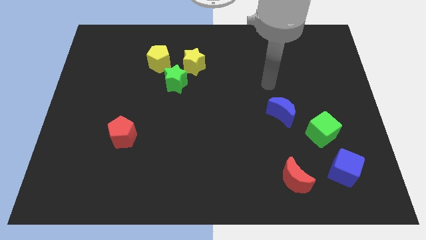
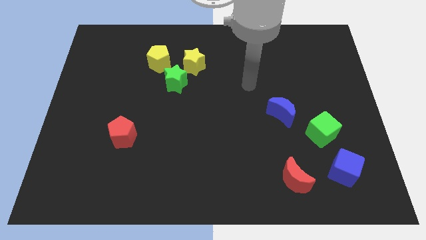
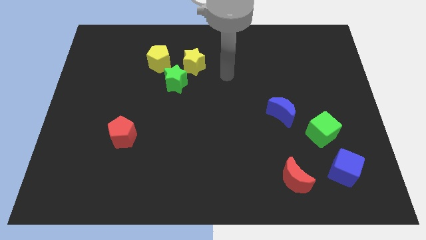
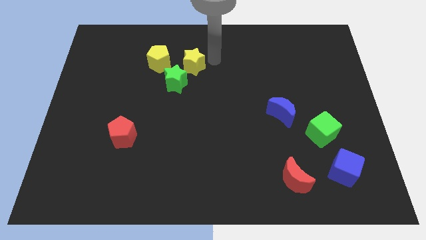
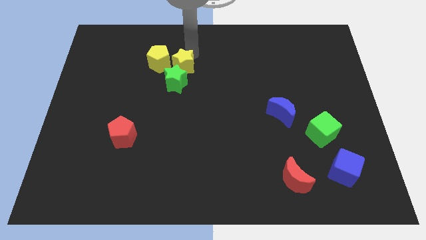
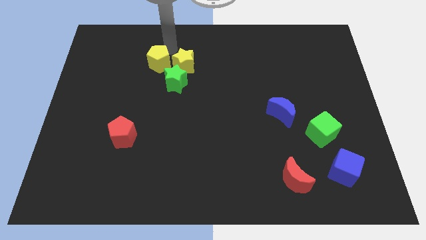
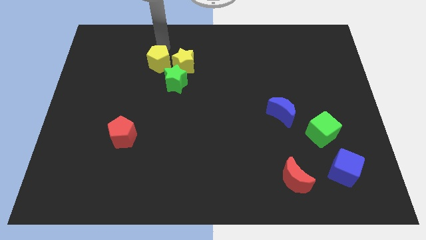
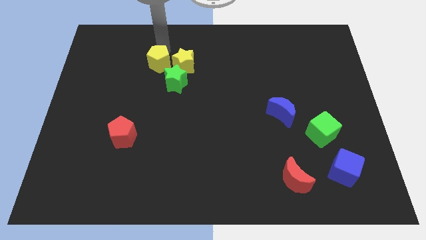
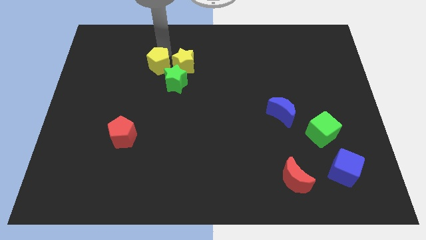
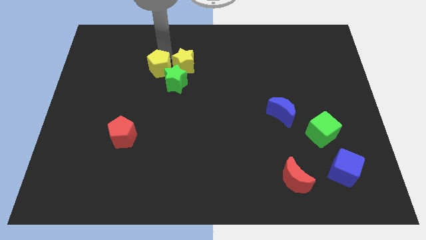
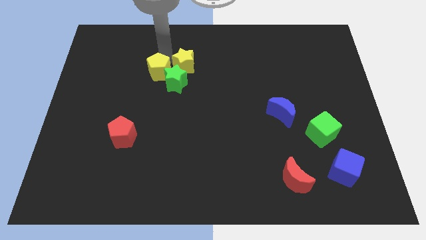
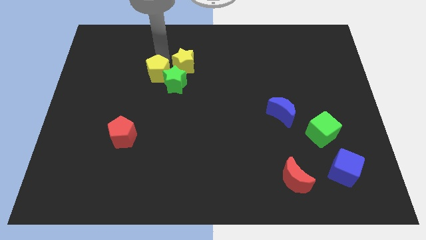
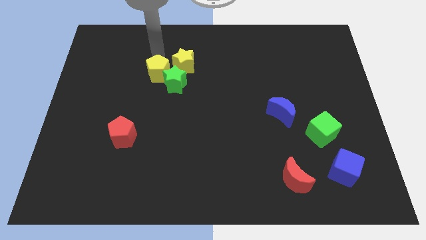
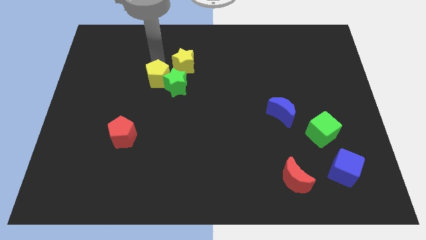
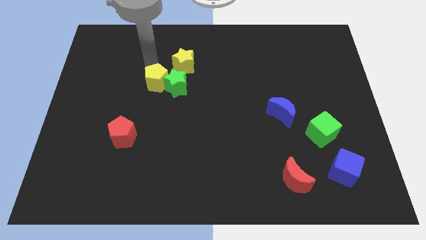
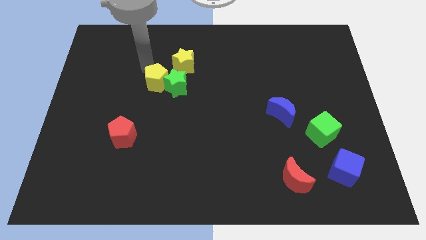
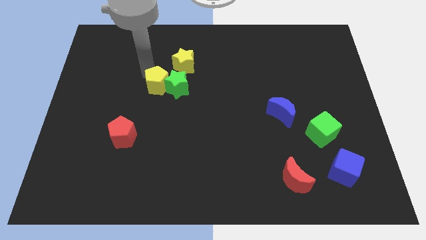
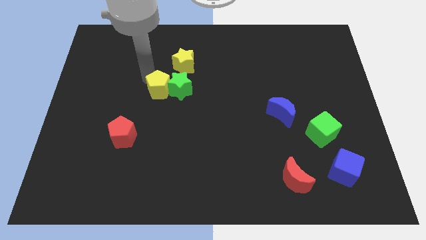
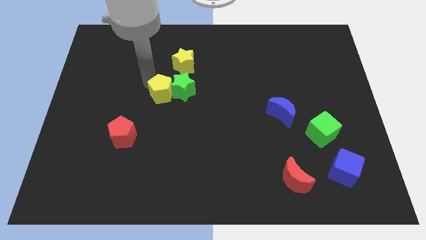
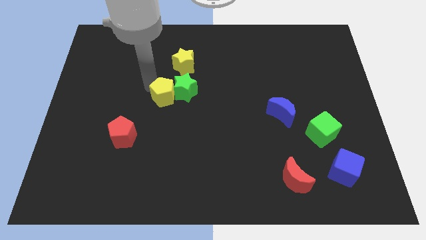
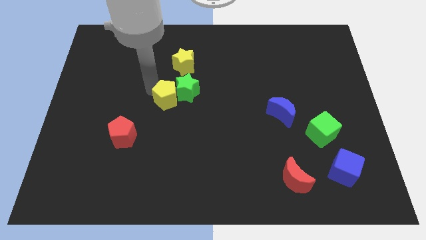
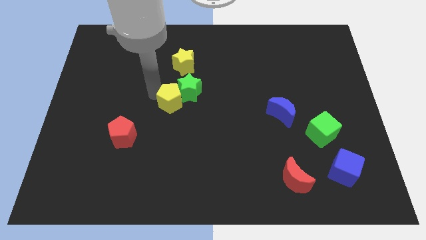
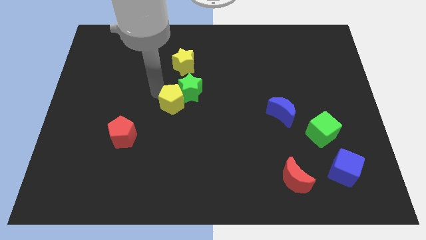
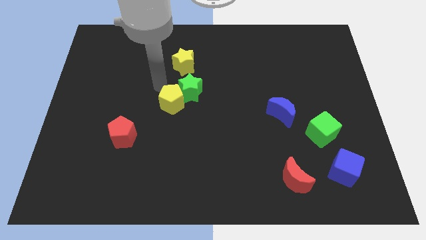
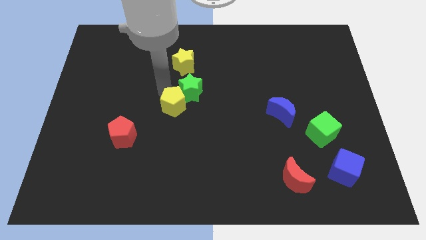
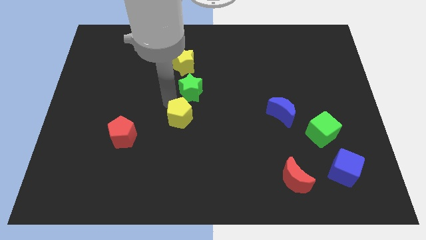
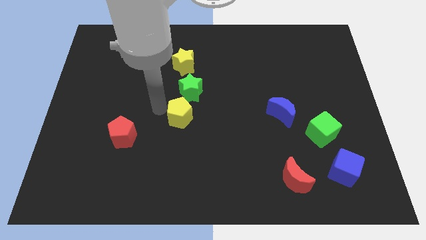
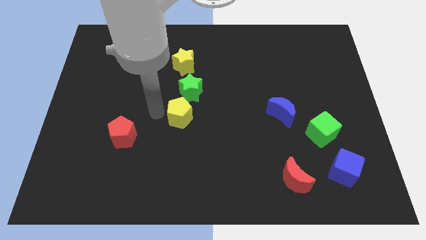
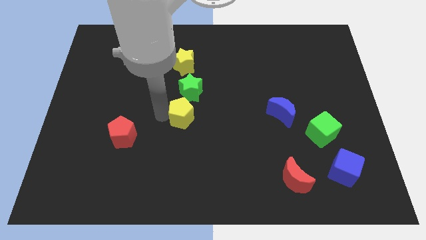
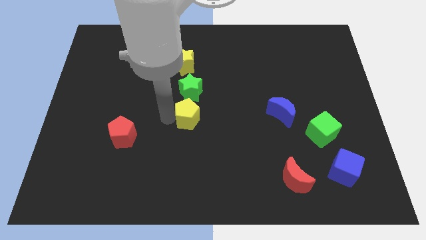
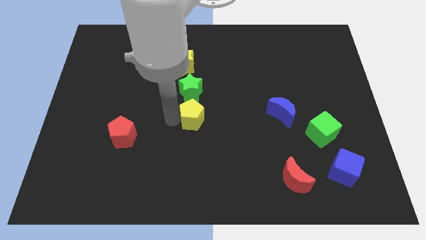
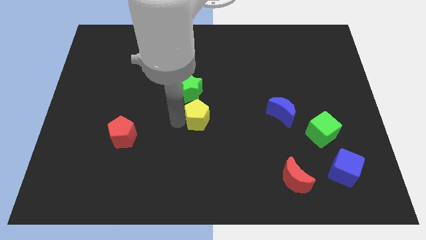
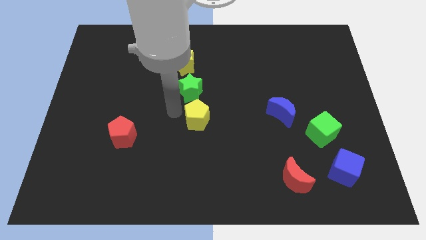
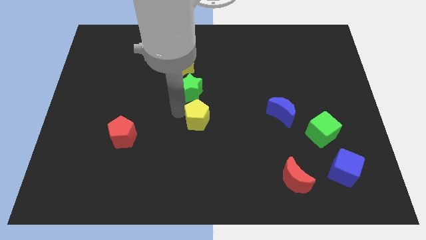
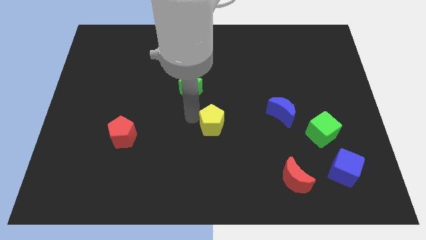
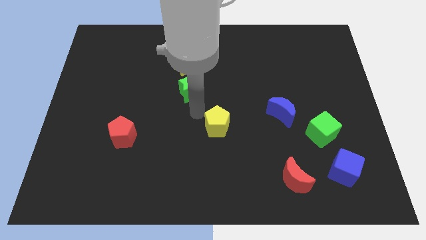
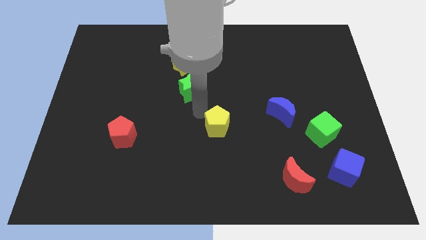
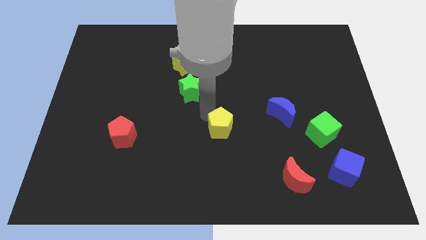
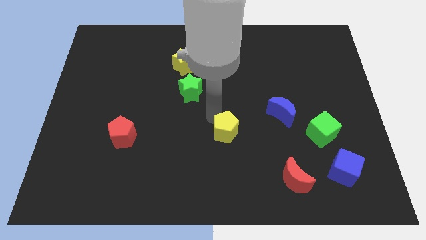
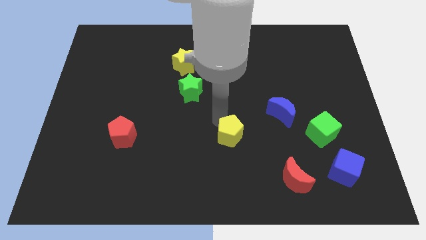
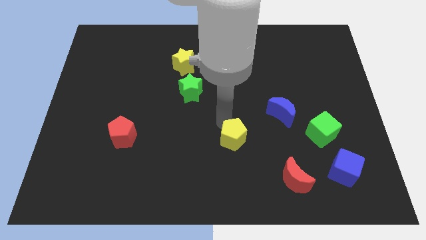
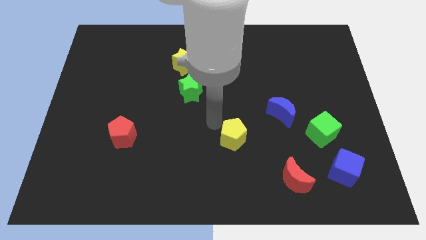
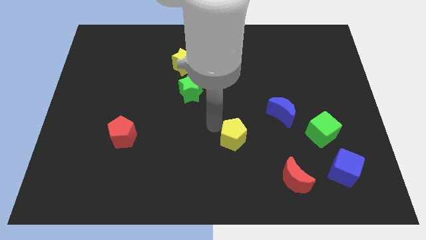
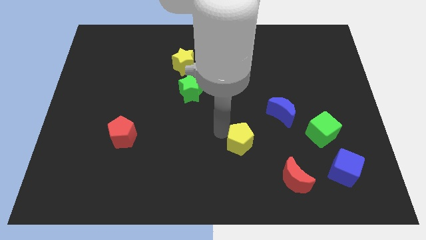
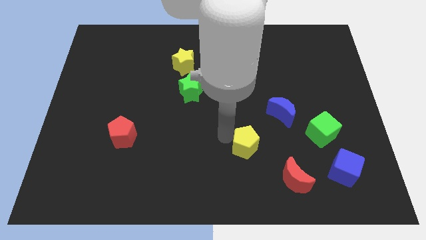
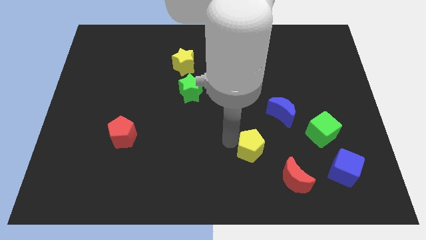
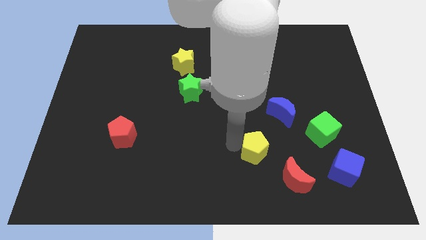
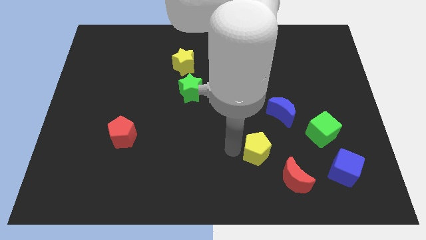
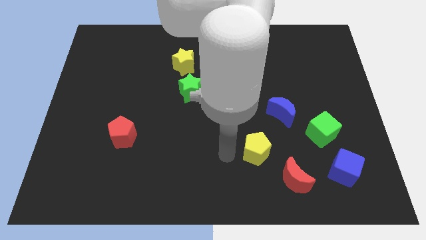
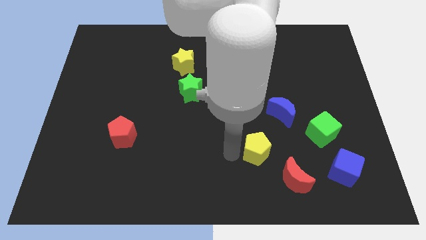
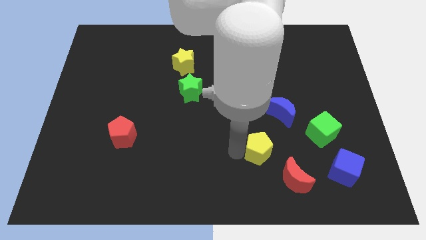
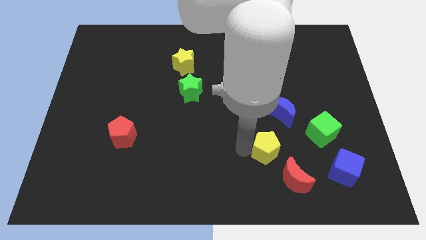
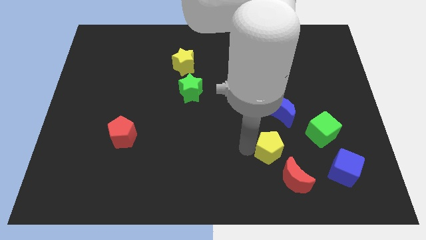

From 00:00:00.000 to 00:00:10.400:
push the yellow pentagon above the red moon

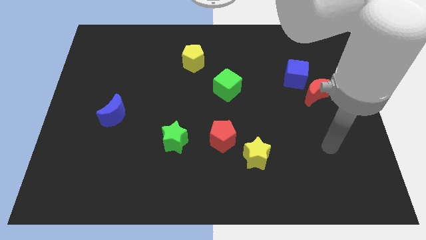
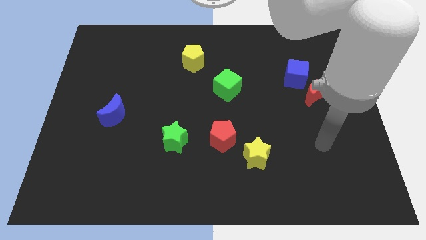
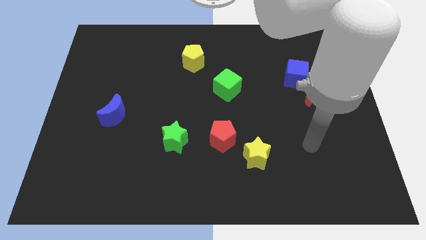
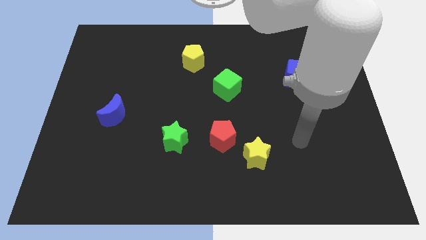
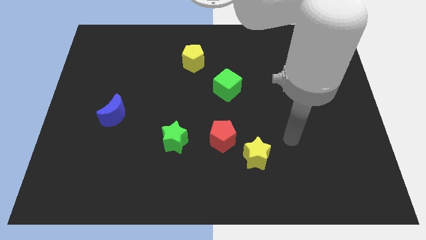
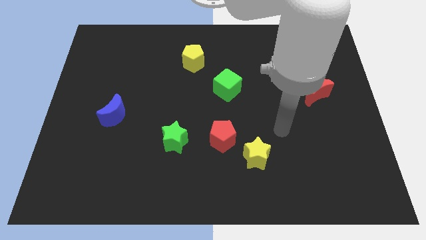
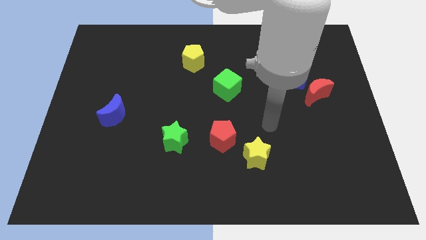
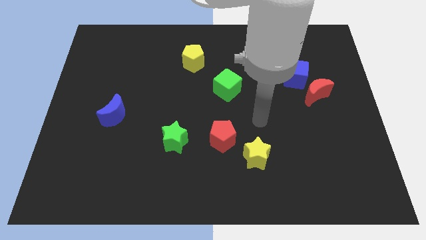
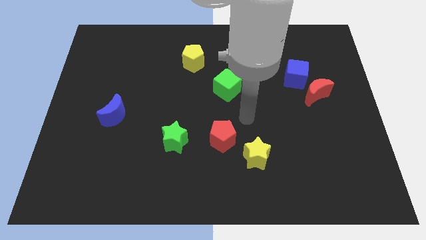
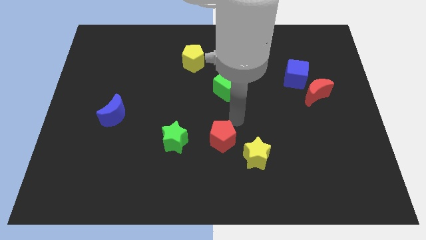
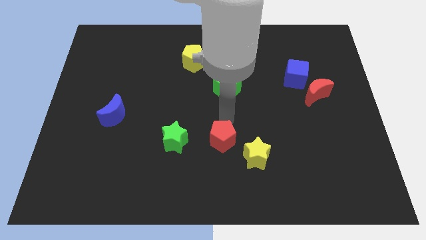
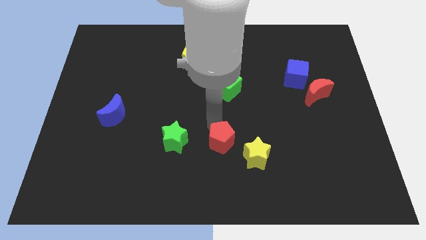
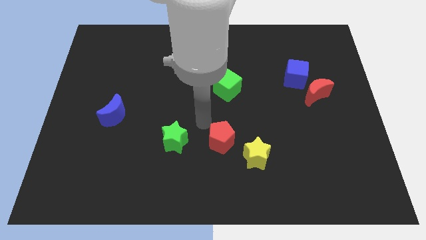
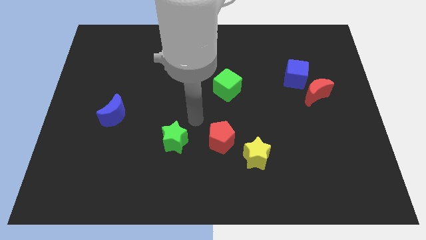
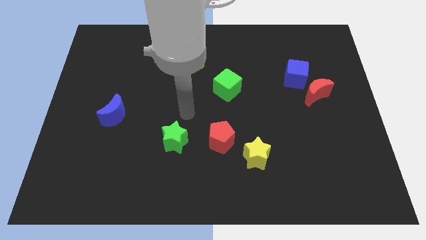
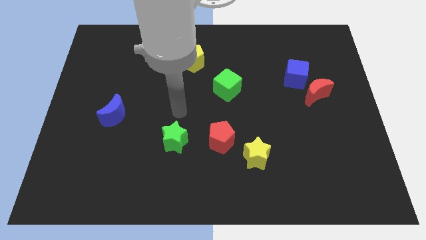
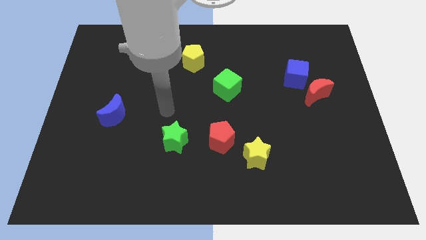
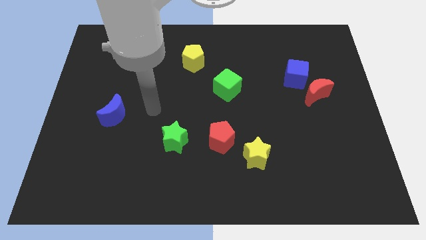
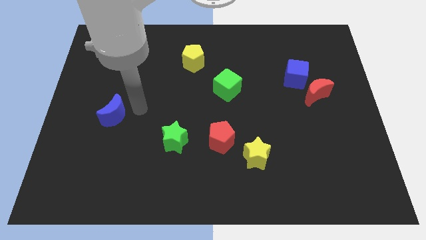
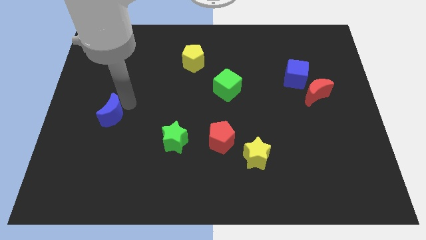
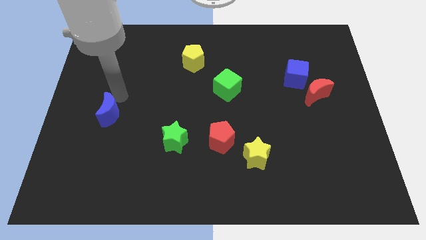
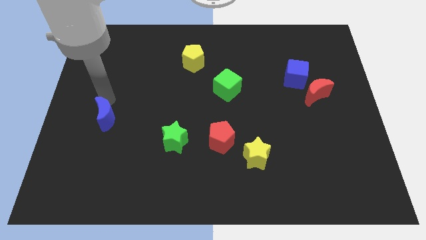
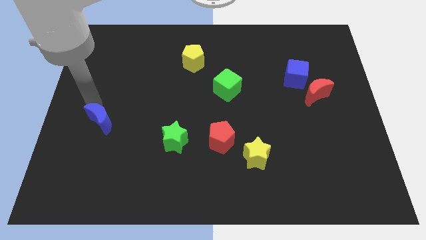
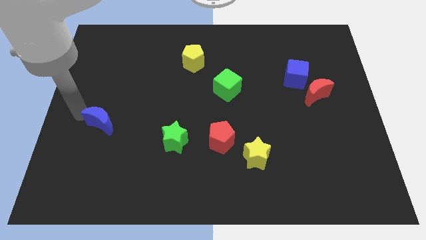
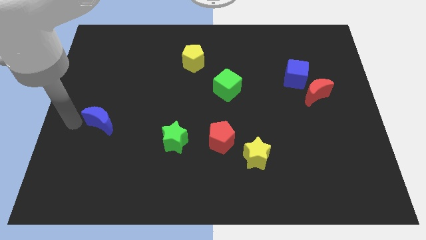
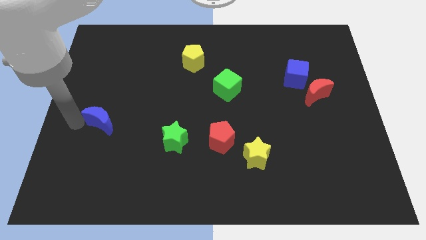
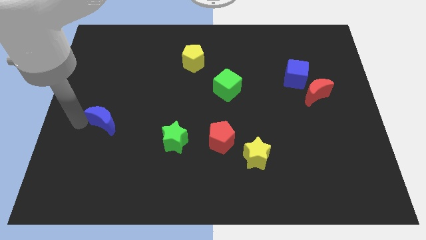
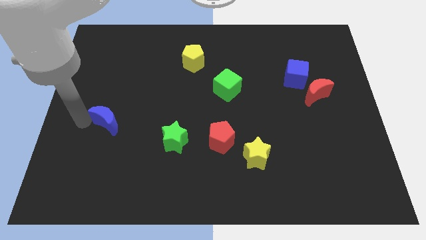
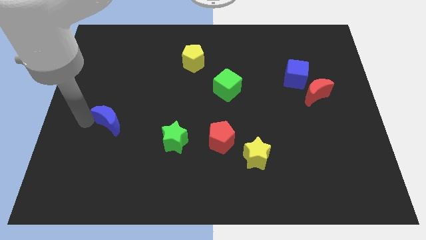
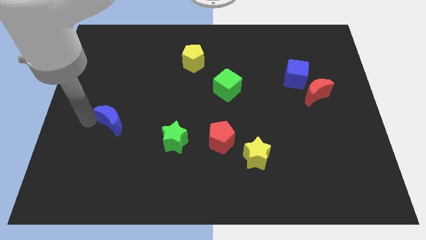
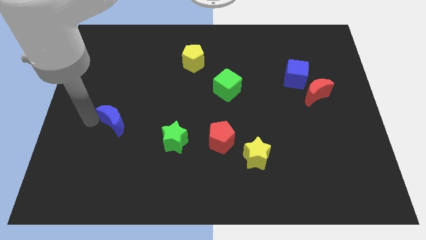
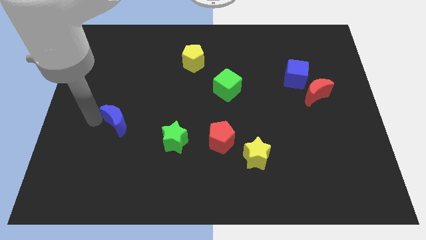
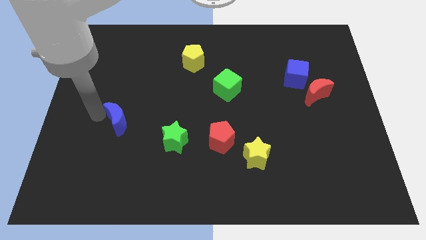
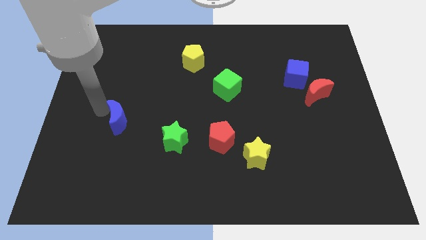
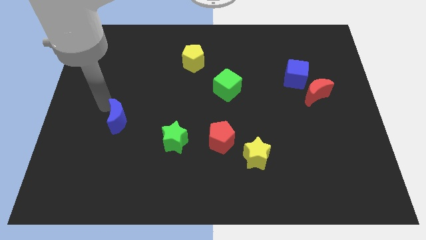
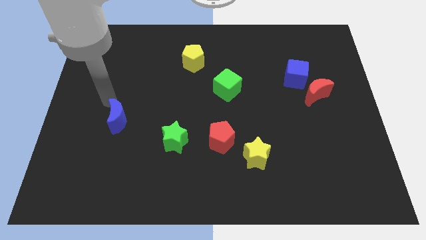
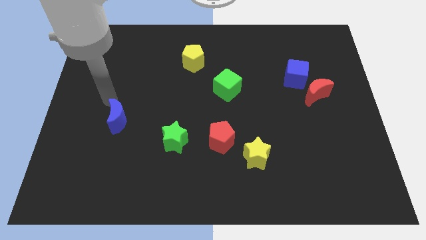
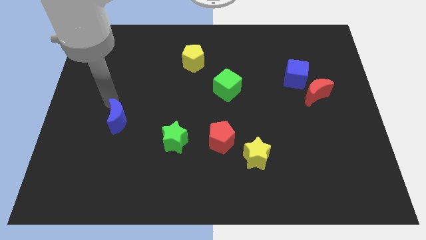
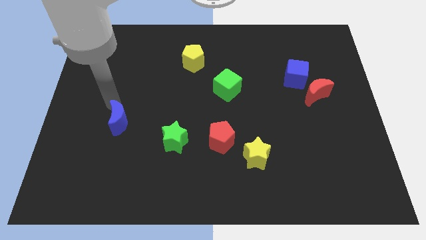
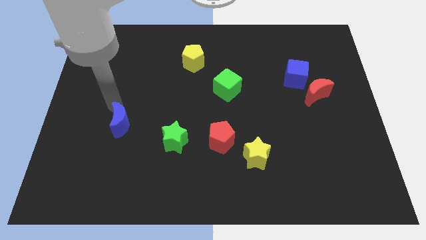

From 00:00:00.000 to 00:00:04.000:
put the blue moon left of the green star
